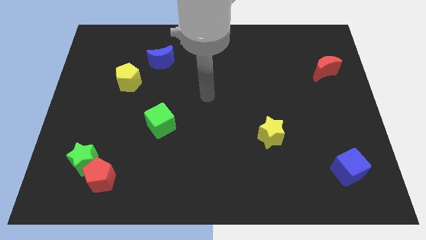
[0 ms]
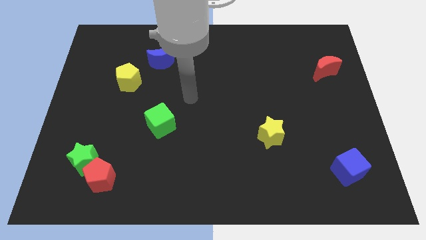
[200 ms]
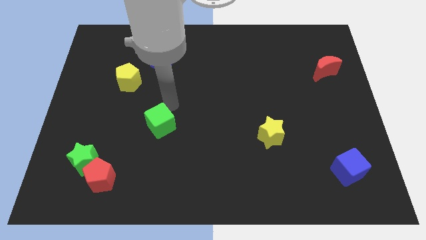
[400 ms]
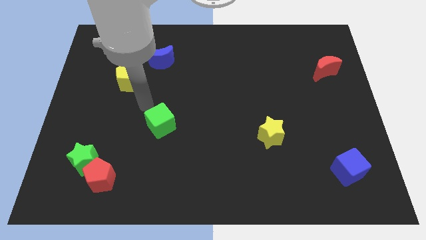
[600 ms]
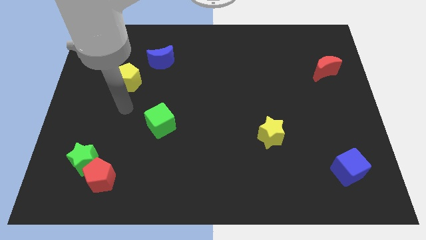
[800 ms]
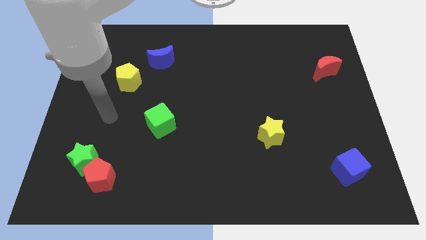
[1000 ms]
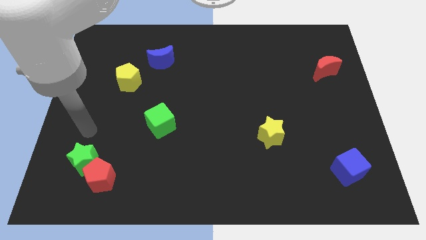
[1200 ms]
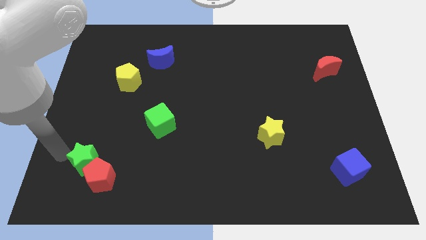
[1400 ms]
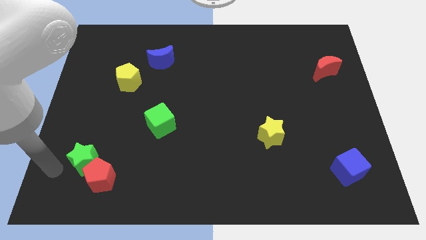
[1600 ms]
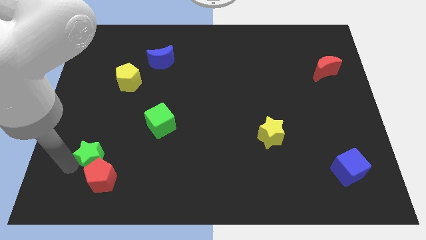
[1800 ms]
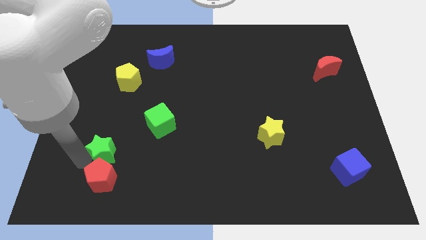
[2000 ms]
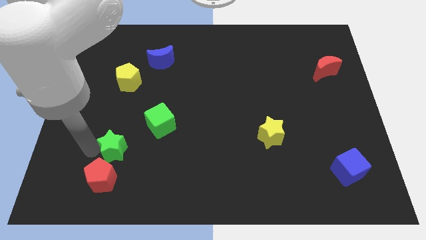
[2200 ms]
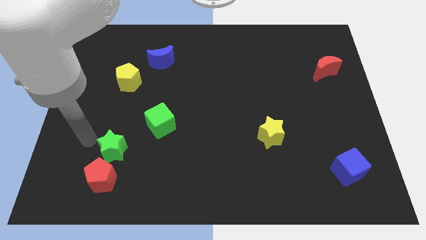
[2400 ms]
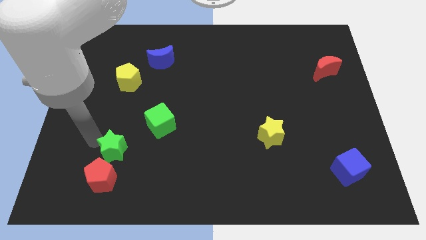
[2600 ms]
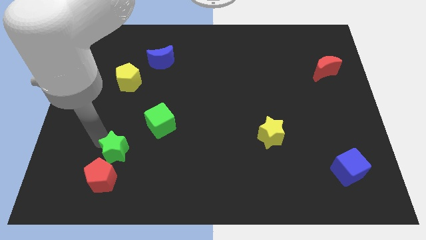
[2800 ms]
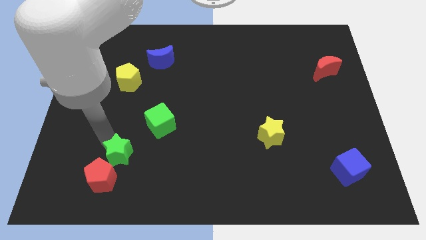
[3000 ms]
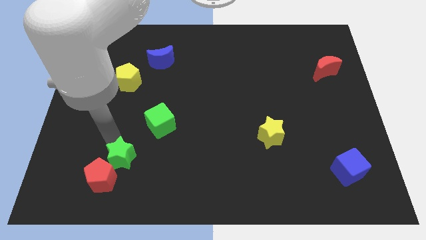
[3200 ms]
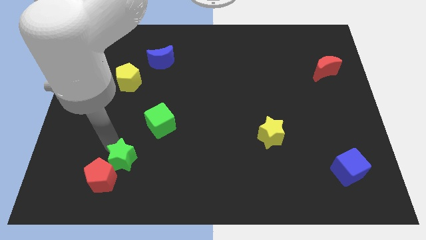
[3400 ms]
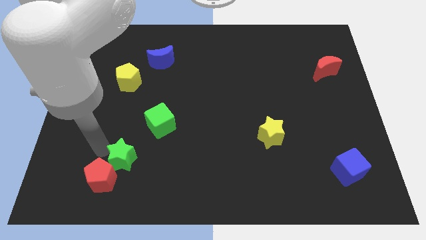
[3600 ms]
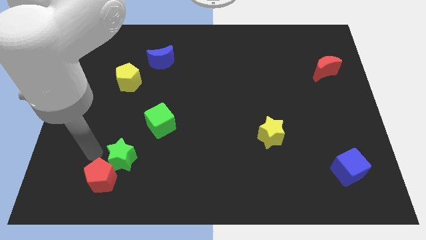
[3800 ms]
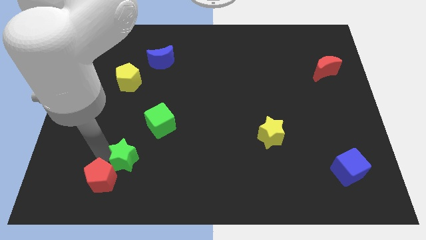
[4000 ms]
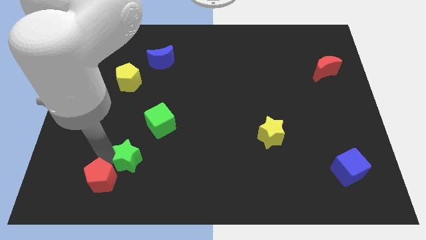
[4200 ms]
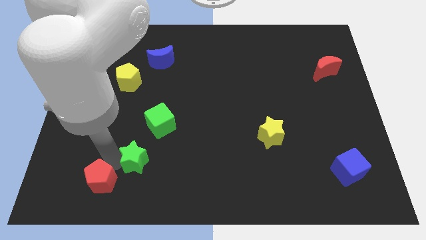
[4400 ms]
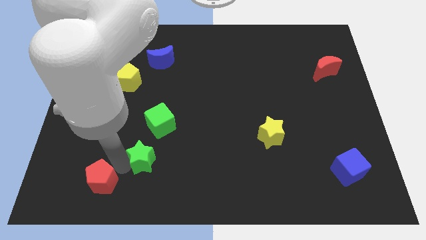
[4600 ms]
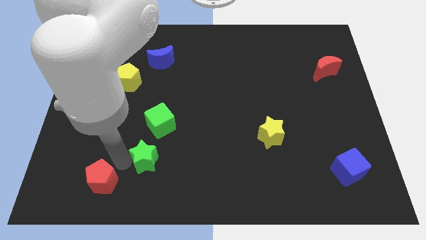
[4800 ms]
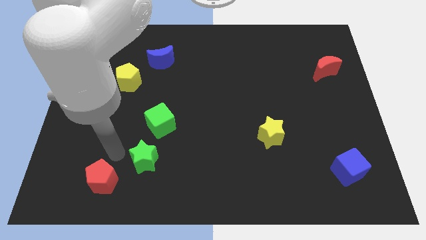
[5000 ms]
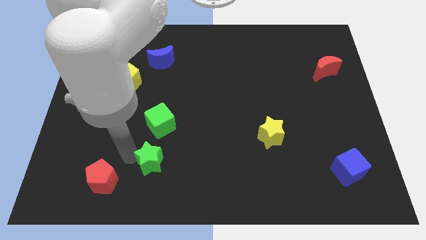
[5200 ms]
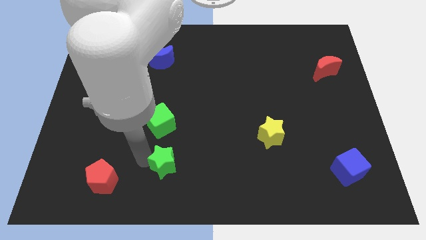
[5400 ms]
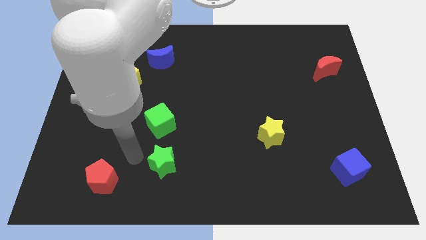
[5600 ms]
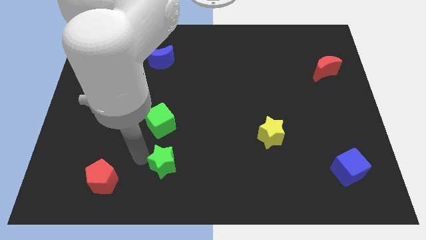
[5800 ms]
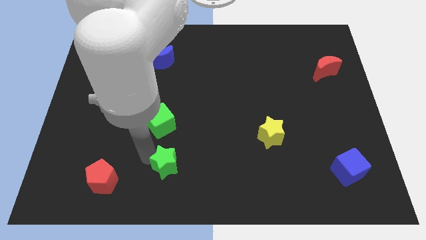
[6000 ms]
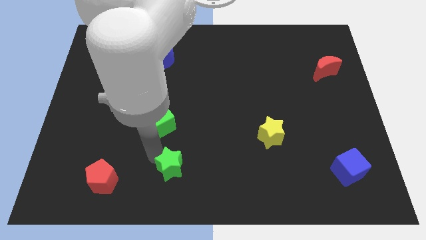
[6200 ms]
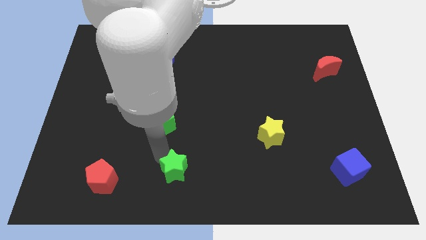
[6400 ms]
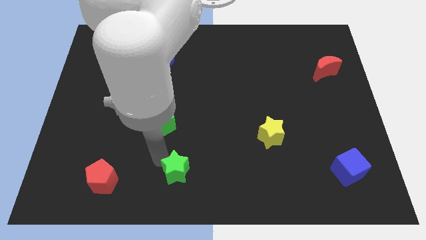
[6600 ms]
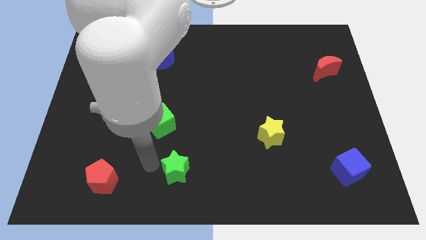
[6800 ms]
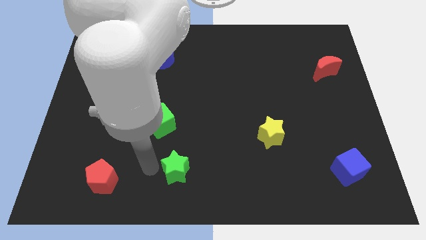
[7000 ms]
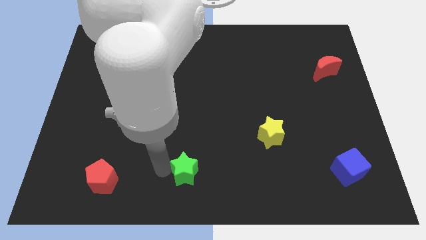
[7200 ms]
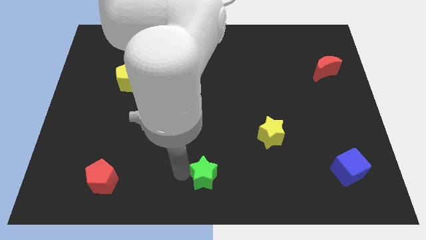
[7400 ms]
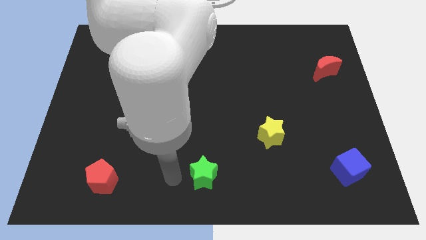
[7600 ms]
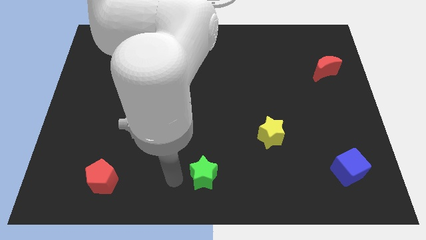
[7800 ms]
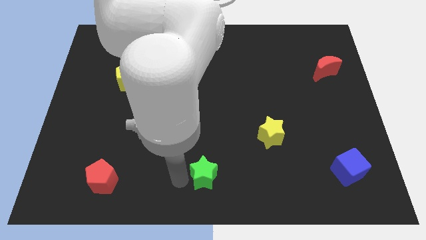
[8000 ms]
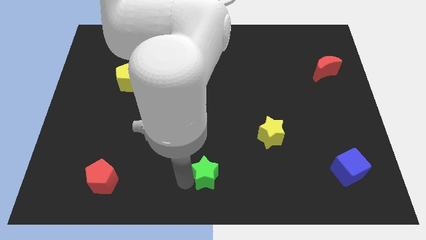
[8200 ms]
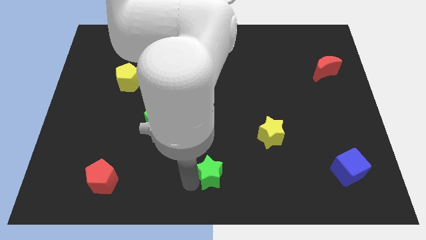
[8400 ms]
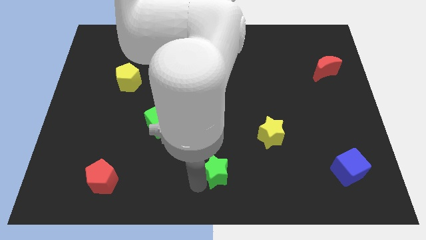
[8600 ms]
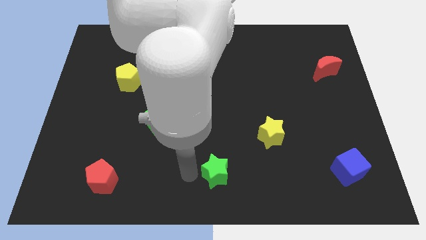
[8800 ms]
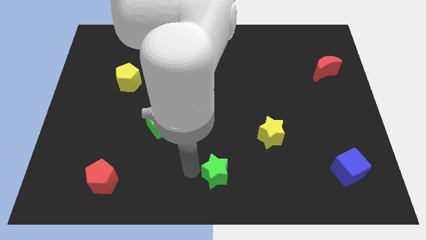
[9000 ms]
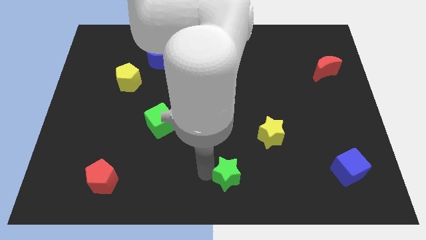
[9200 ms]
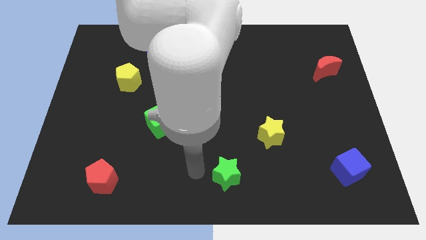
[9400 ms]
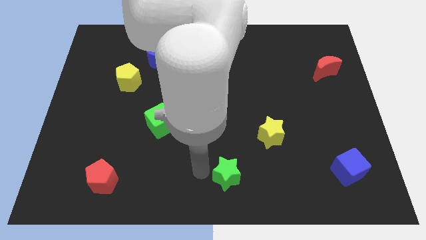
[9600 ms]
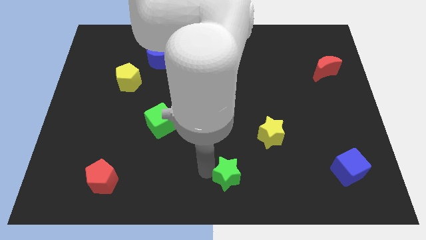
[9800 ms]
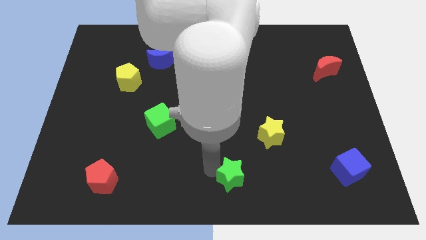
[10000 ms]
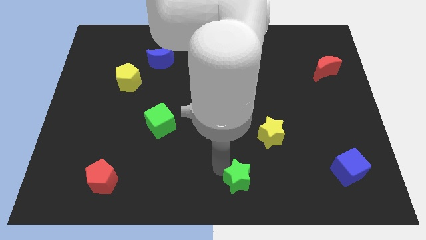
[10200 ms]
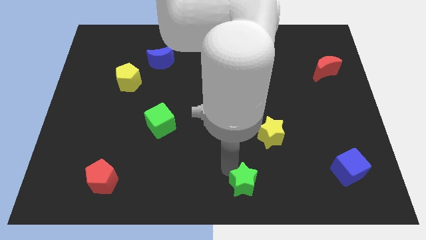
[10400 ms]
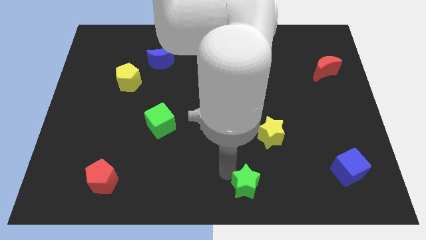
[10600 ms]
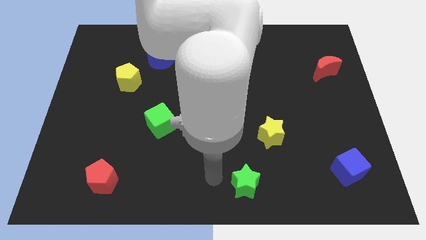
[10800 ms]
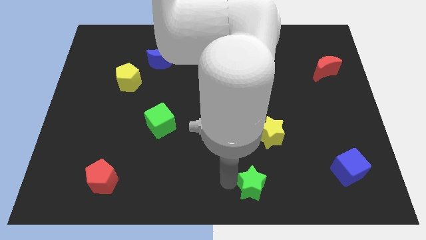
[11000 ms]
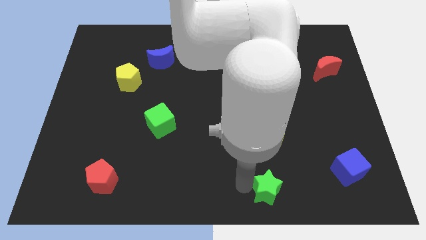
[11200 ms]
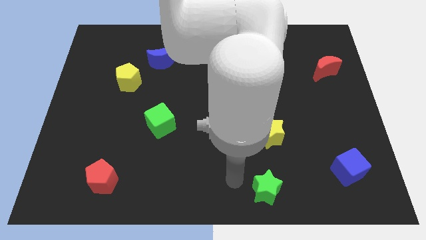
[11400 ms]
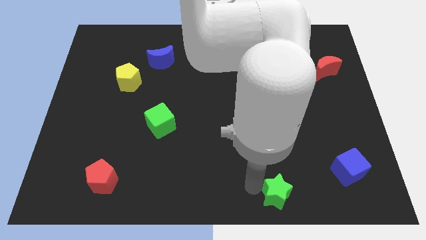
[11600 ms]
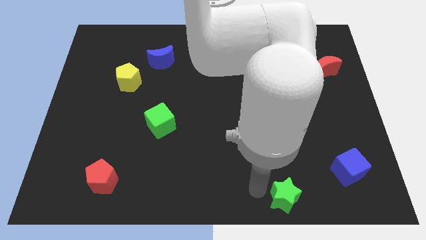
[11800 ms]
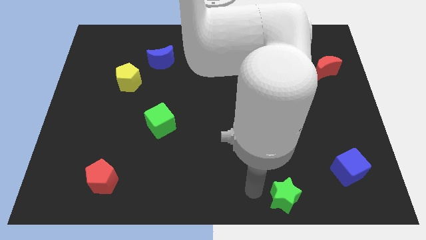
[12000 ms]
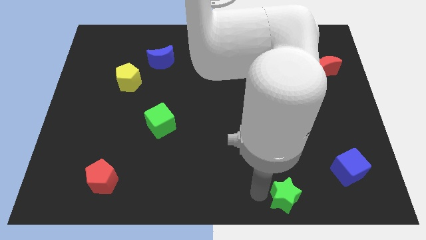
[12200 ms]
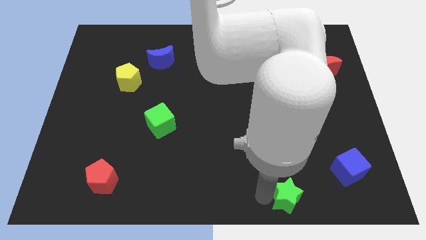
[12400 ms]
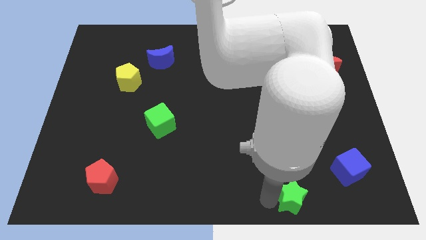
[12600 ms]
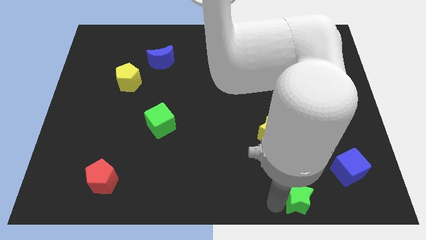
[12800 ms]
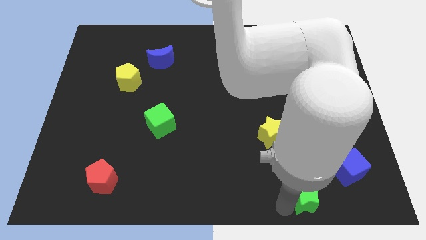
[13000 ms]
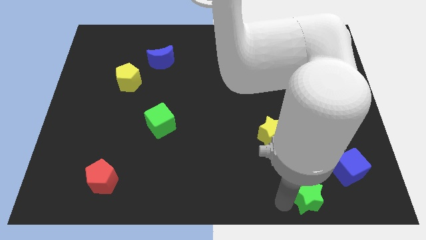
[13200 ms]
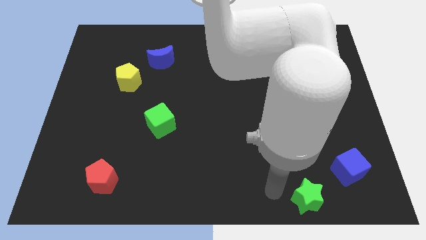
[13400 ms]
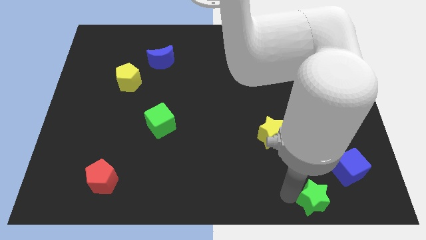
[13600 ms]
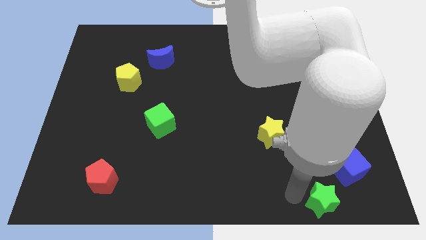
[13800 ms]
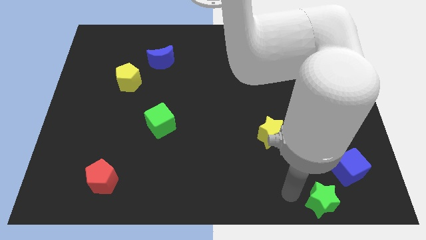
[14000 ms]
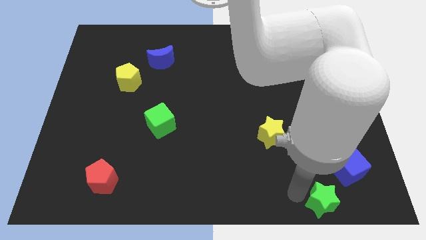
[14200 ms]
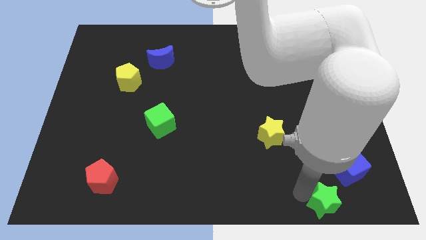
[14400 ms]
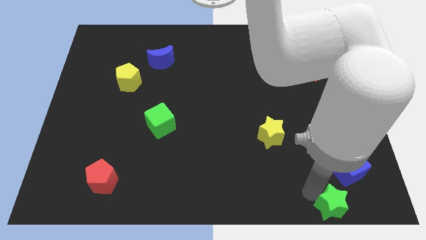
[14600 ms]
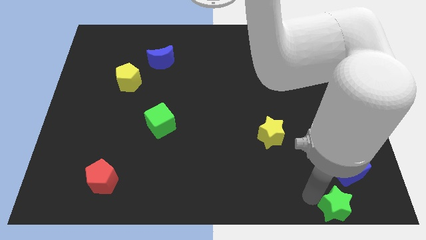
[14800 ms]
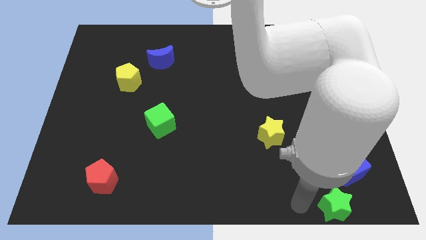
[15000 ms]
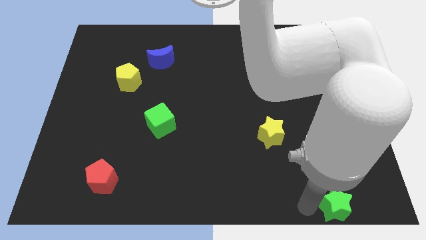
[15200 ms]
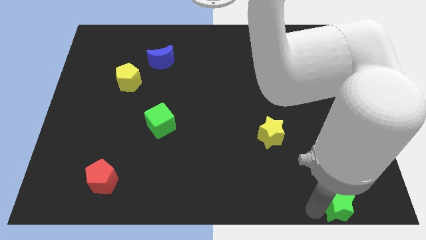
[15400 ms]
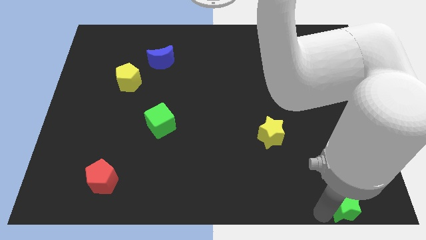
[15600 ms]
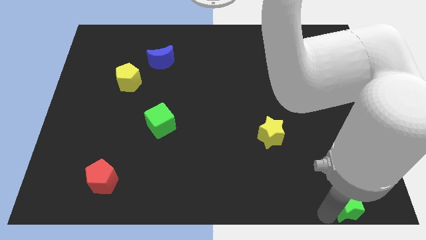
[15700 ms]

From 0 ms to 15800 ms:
put the green star to the bottom right corner
